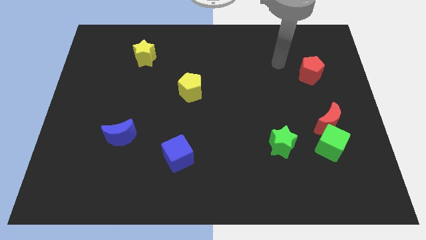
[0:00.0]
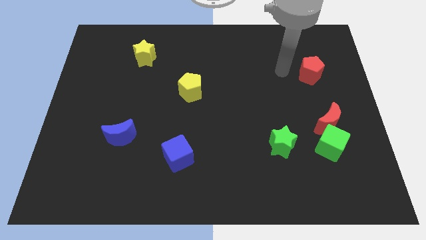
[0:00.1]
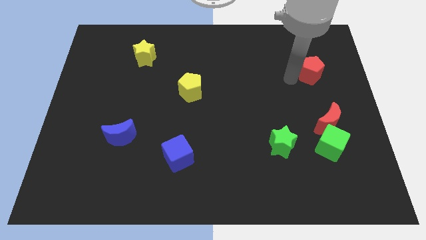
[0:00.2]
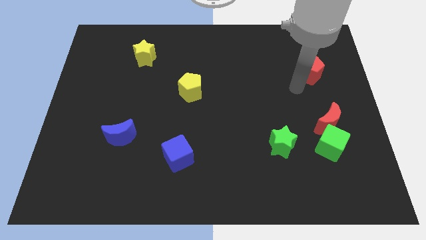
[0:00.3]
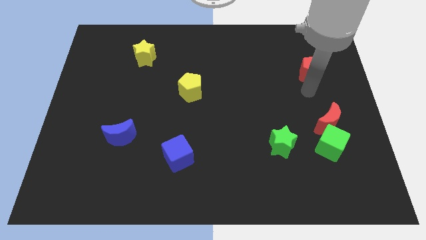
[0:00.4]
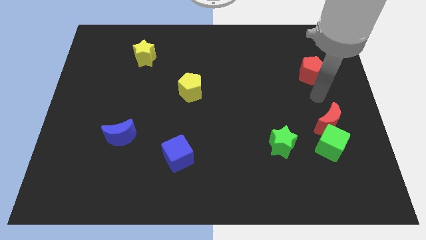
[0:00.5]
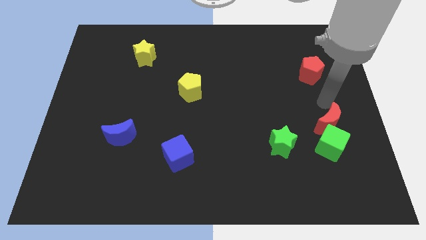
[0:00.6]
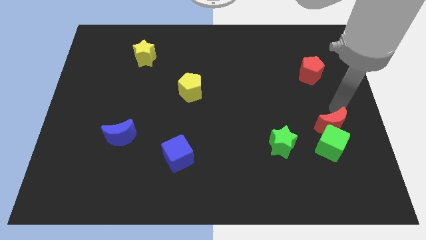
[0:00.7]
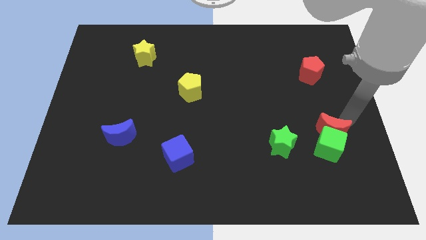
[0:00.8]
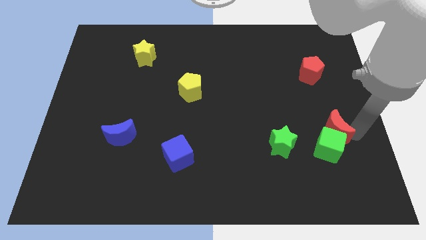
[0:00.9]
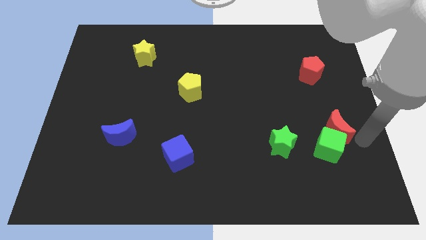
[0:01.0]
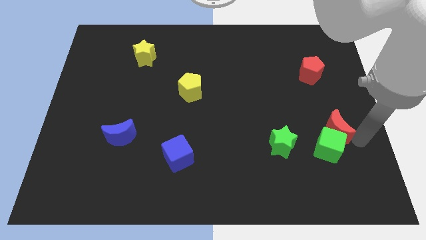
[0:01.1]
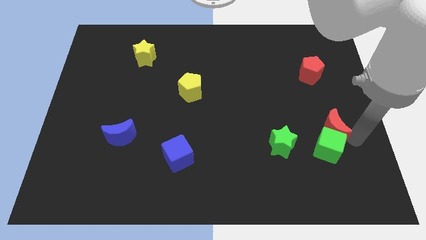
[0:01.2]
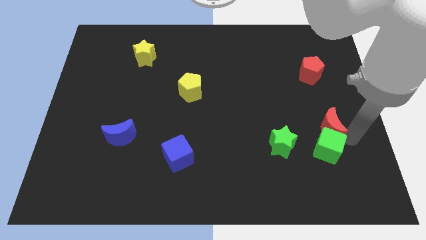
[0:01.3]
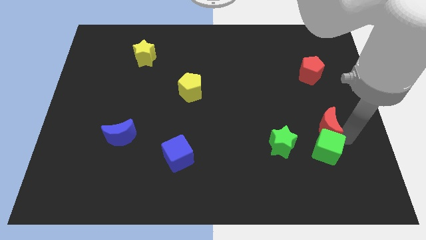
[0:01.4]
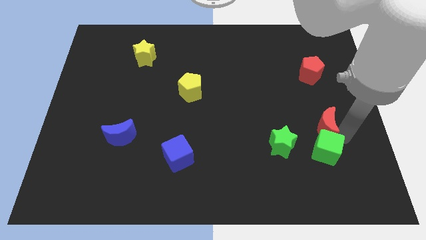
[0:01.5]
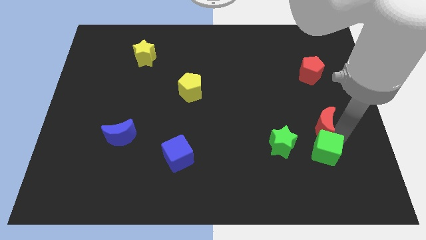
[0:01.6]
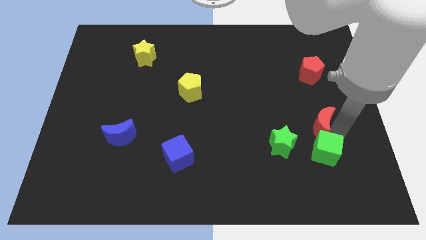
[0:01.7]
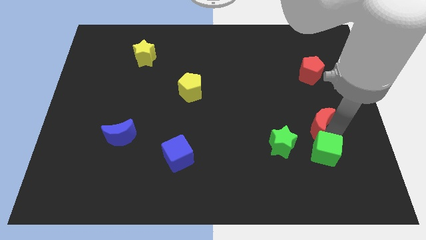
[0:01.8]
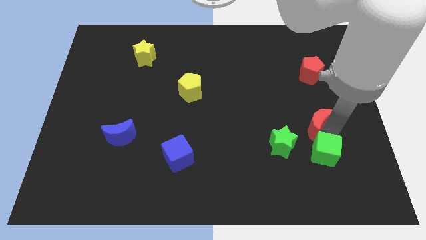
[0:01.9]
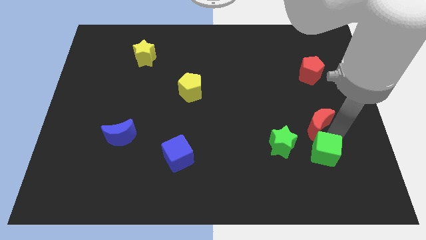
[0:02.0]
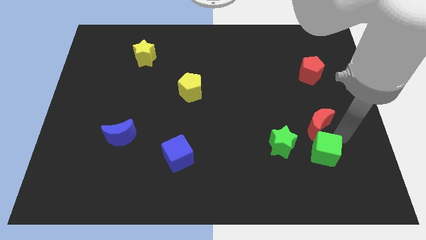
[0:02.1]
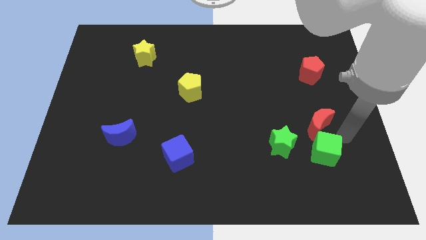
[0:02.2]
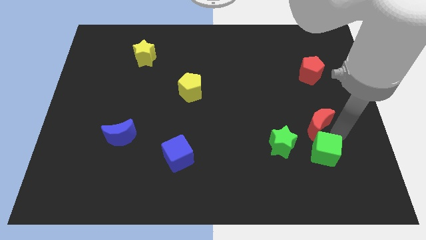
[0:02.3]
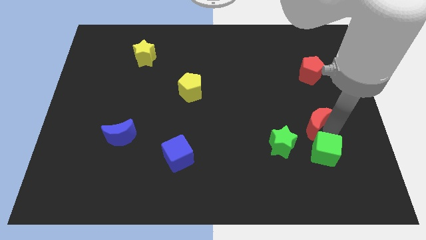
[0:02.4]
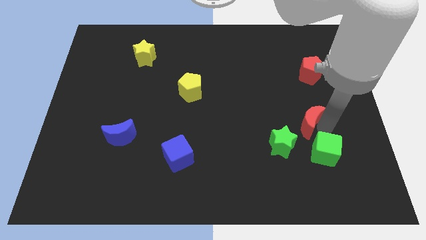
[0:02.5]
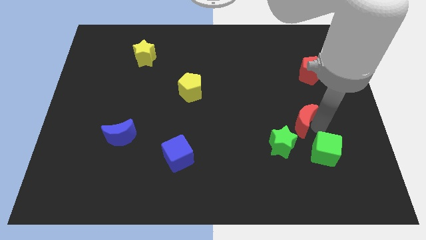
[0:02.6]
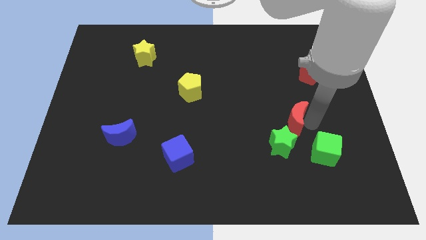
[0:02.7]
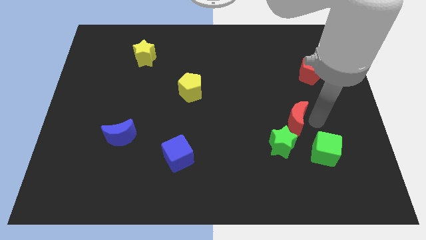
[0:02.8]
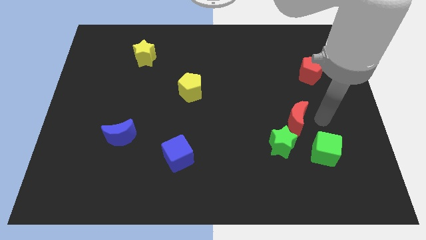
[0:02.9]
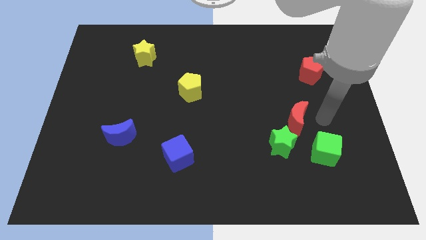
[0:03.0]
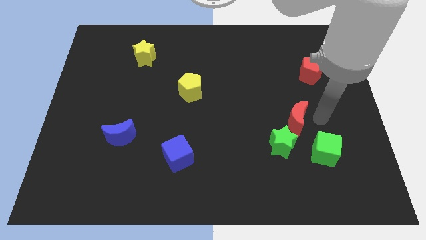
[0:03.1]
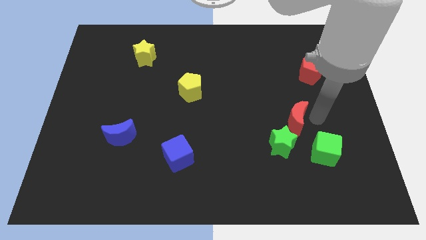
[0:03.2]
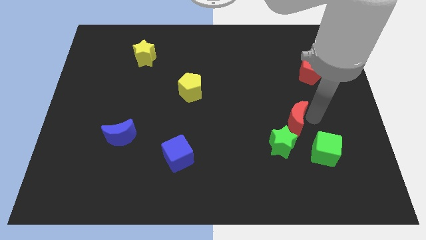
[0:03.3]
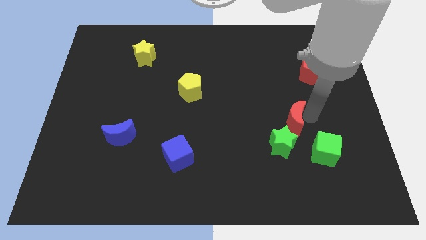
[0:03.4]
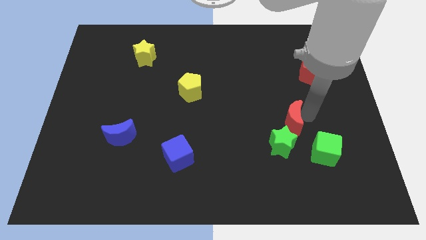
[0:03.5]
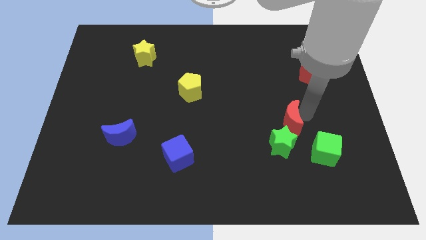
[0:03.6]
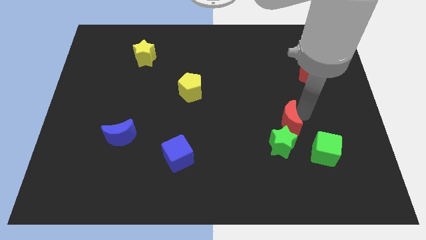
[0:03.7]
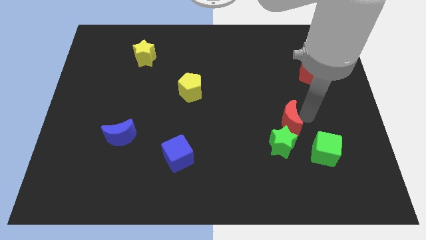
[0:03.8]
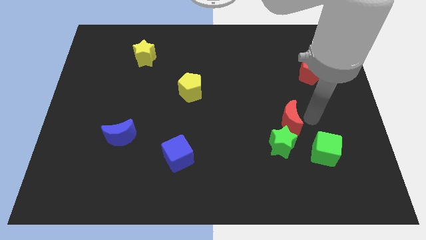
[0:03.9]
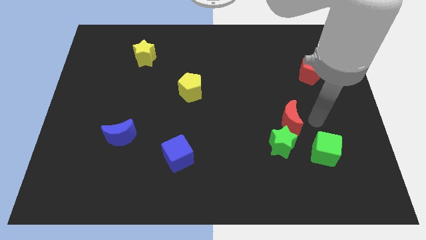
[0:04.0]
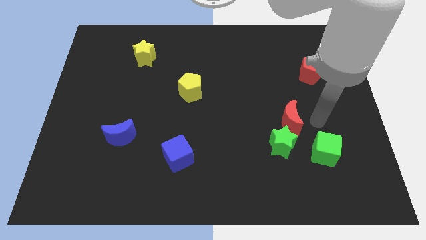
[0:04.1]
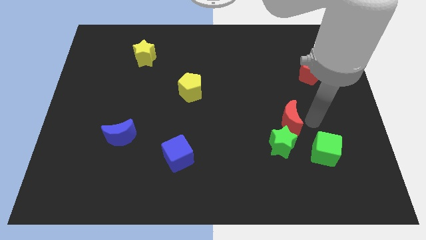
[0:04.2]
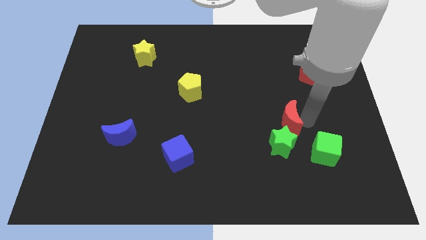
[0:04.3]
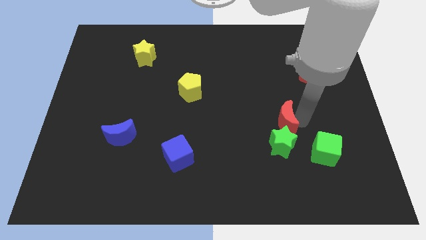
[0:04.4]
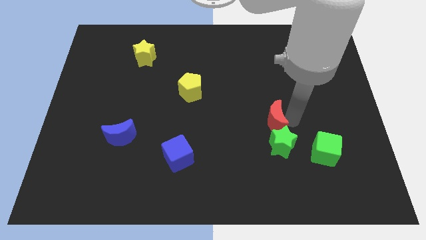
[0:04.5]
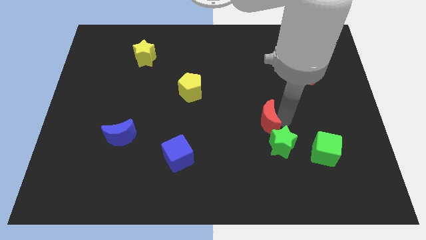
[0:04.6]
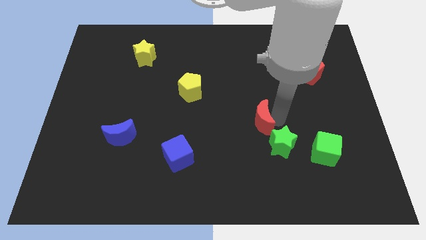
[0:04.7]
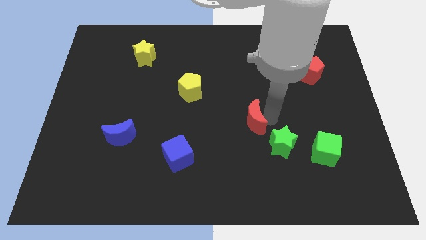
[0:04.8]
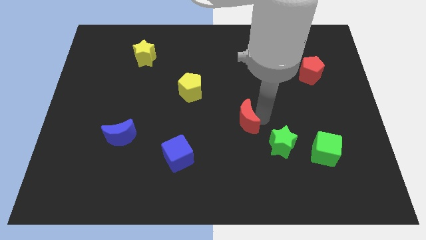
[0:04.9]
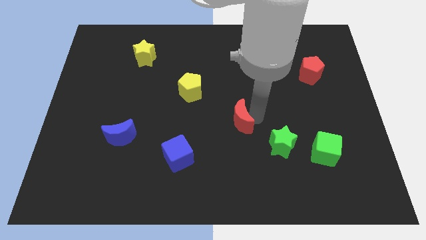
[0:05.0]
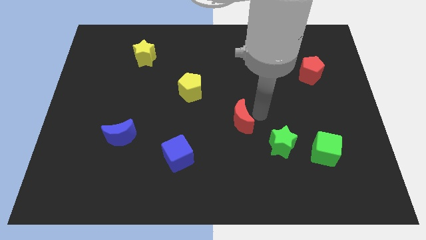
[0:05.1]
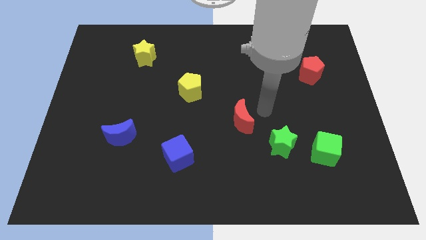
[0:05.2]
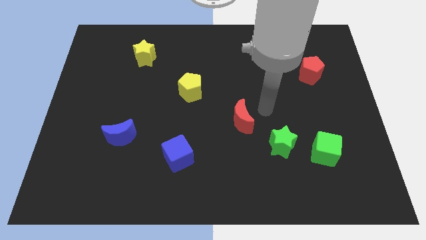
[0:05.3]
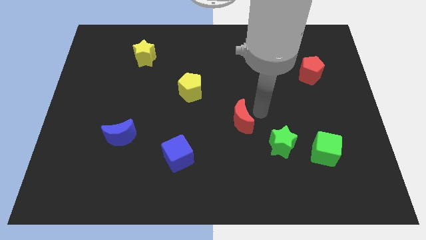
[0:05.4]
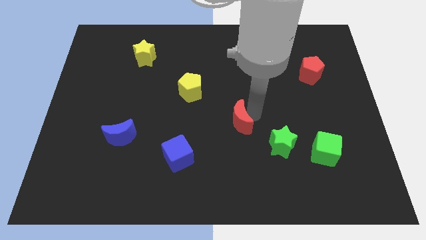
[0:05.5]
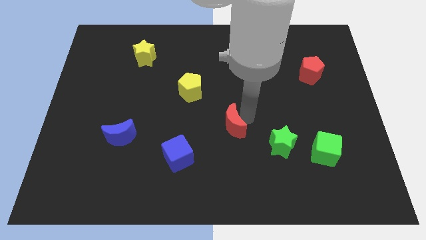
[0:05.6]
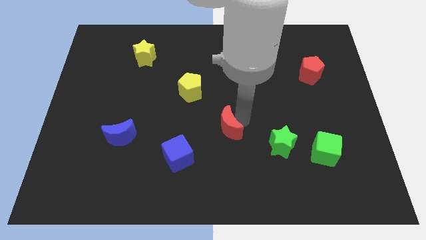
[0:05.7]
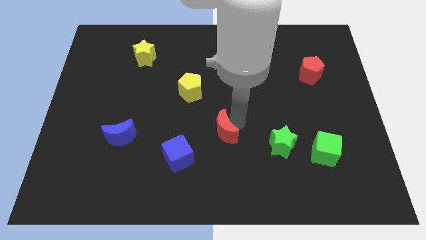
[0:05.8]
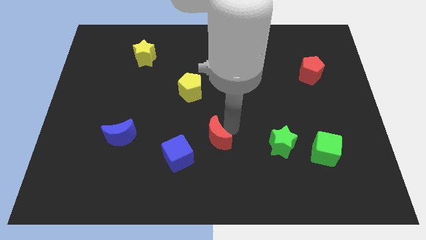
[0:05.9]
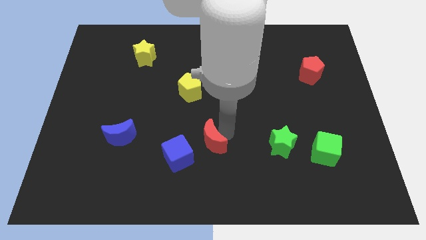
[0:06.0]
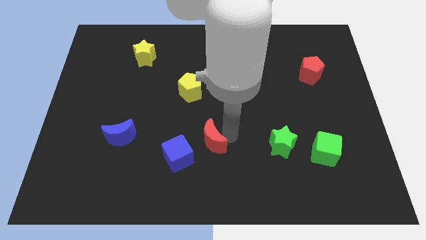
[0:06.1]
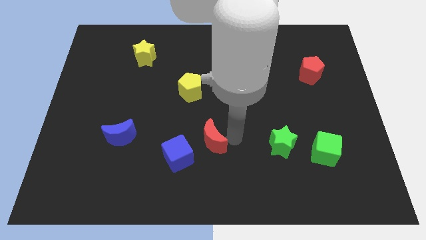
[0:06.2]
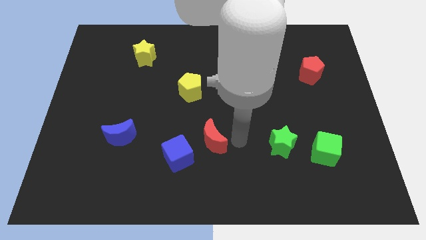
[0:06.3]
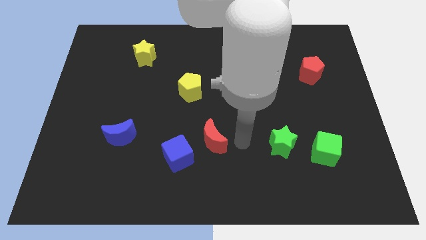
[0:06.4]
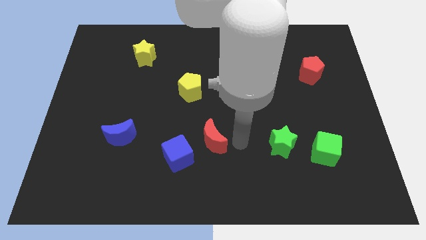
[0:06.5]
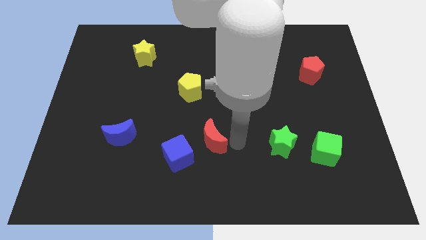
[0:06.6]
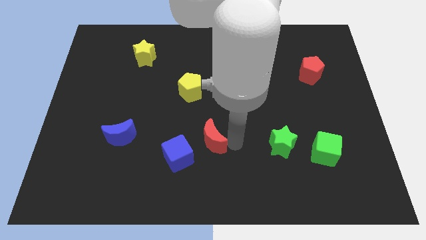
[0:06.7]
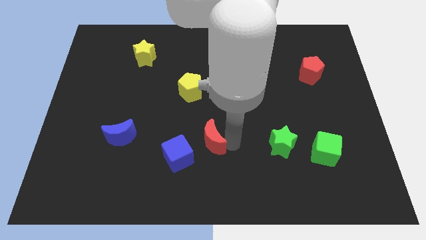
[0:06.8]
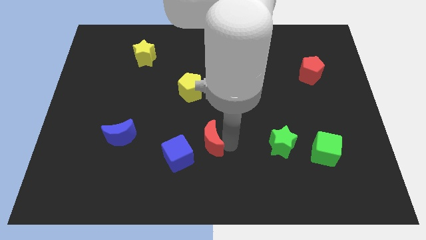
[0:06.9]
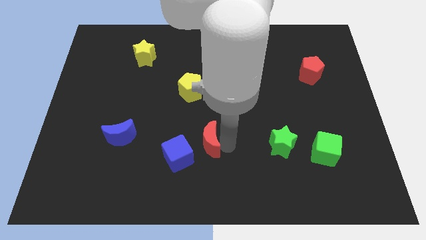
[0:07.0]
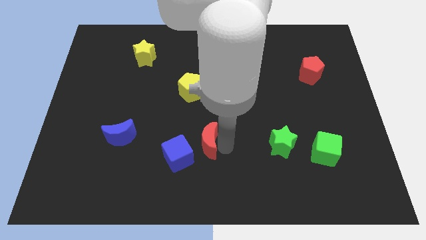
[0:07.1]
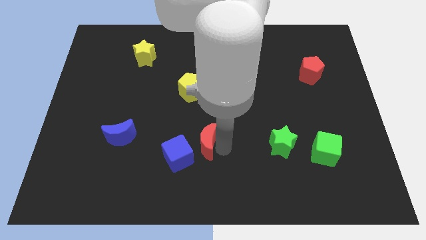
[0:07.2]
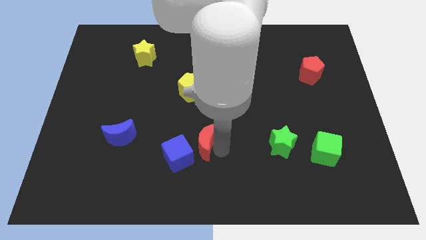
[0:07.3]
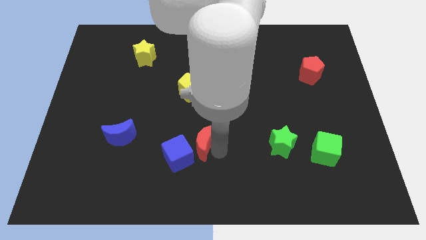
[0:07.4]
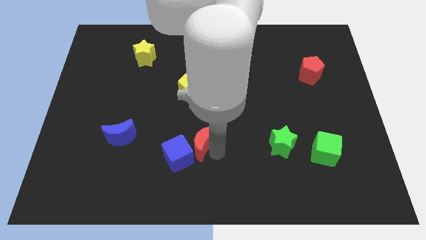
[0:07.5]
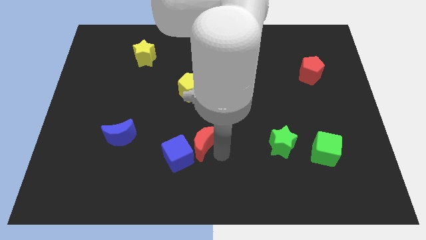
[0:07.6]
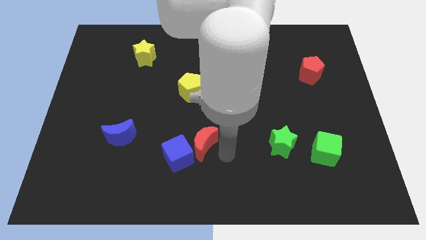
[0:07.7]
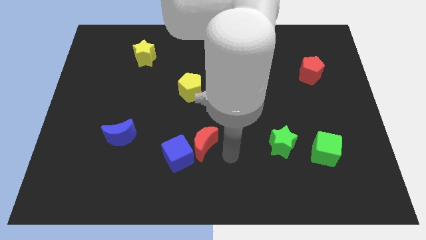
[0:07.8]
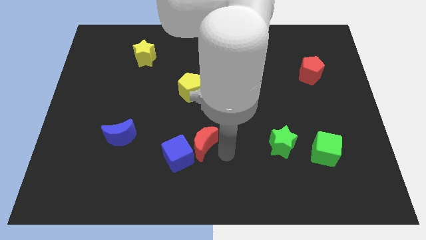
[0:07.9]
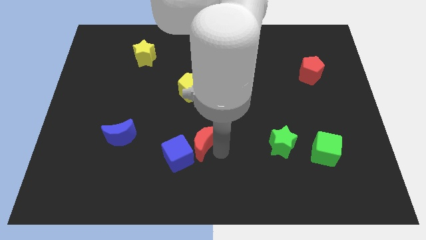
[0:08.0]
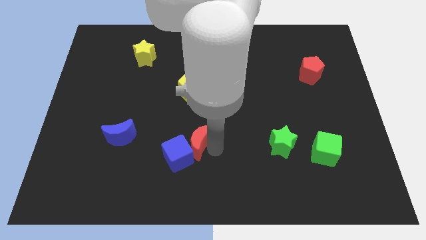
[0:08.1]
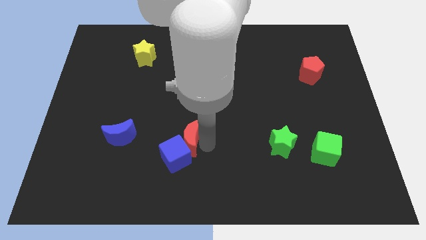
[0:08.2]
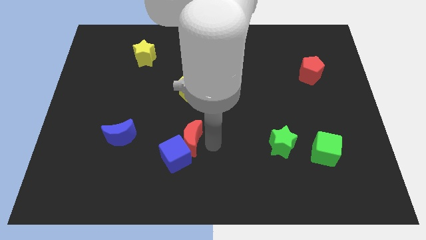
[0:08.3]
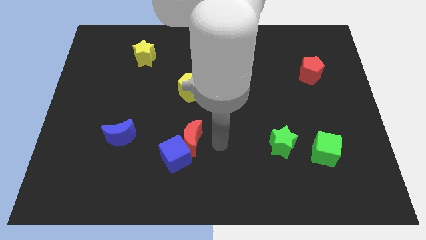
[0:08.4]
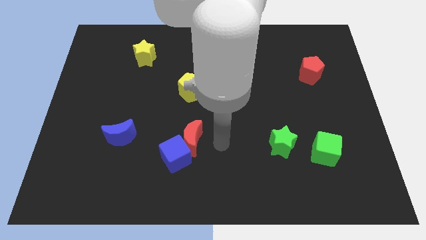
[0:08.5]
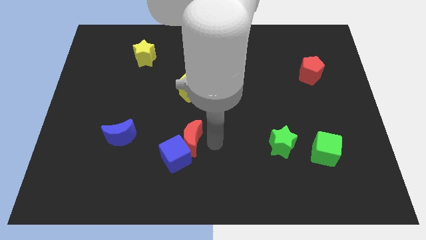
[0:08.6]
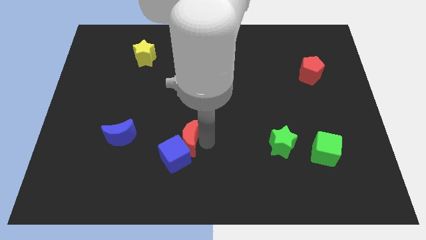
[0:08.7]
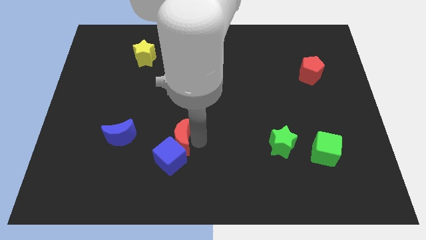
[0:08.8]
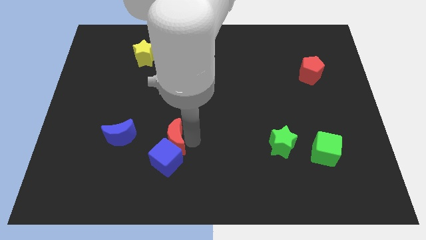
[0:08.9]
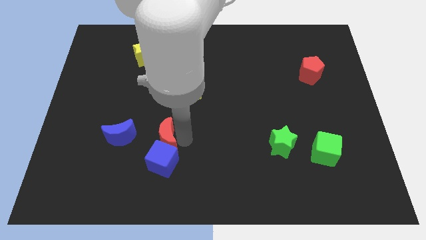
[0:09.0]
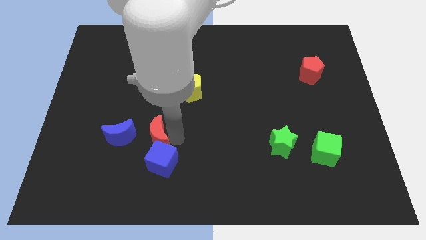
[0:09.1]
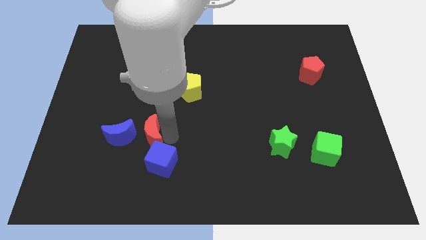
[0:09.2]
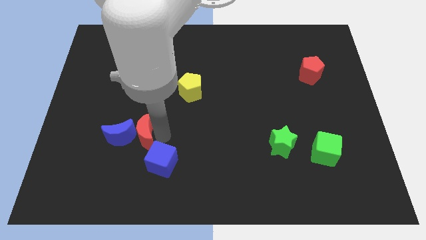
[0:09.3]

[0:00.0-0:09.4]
move the red moon close to the blue moon
